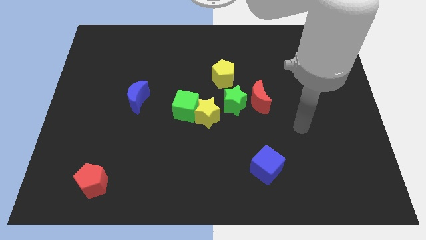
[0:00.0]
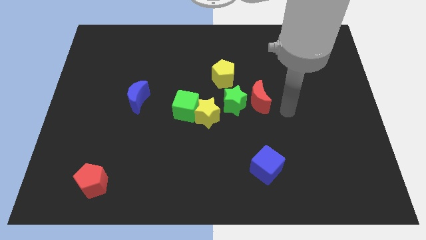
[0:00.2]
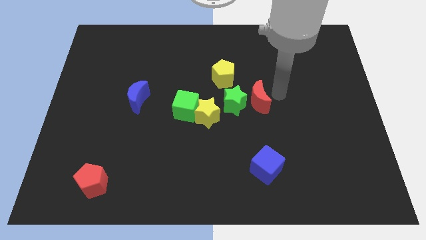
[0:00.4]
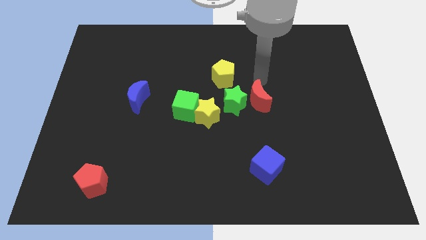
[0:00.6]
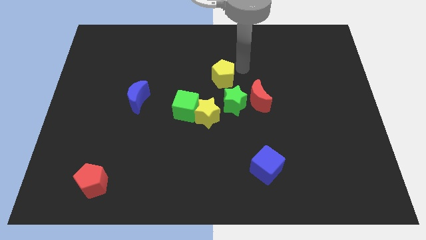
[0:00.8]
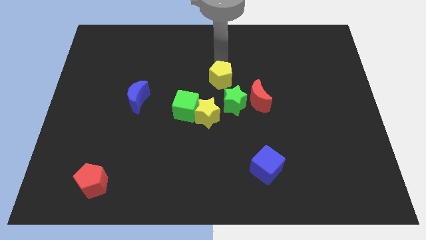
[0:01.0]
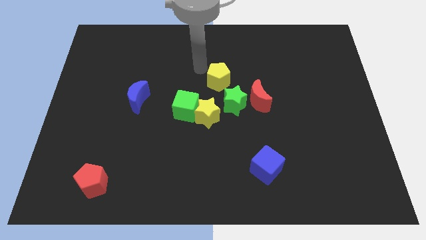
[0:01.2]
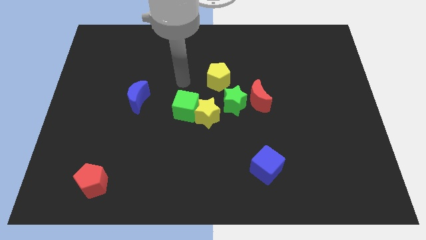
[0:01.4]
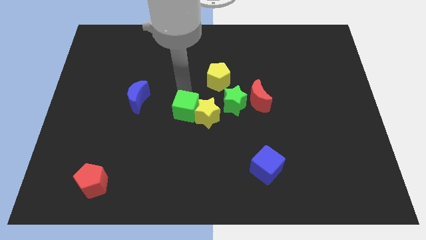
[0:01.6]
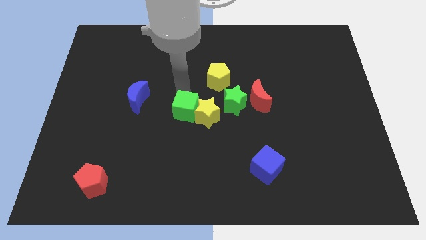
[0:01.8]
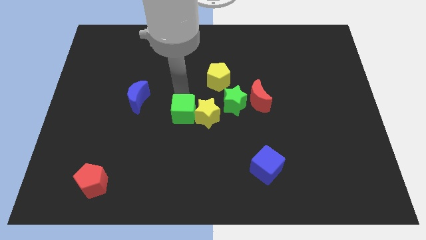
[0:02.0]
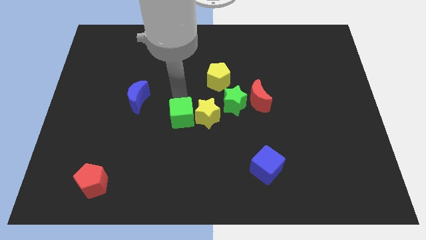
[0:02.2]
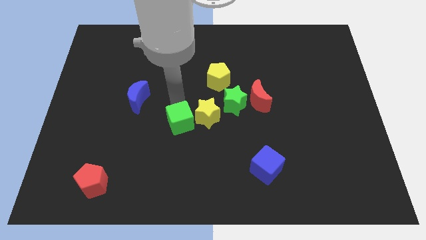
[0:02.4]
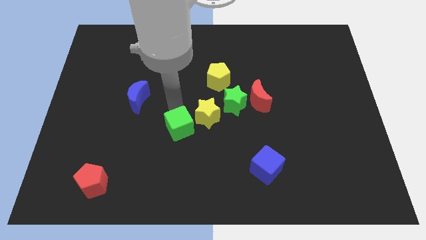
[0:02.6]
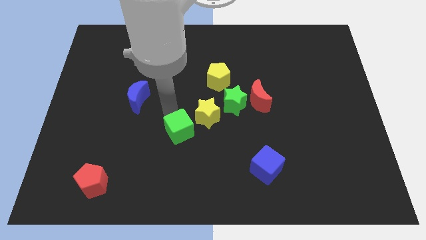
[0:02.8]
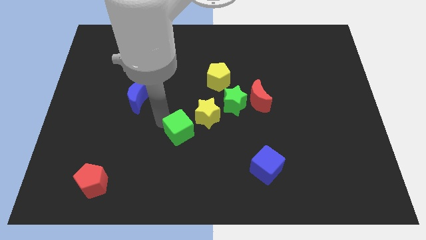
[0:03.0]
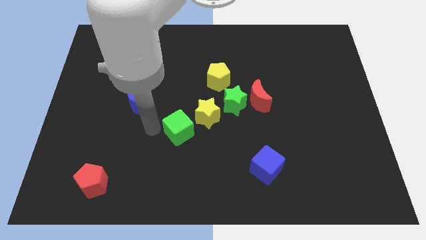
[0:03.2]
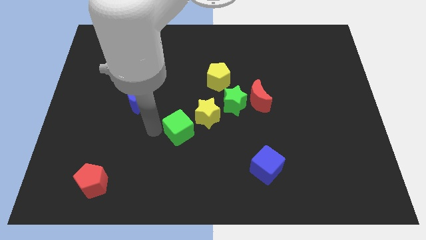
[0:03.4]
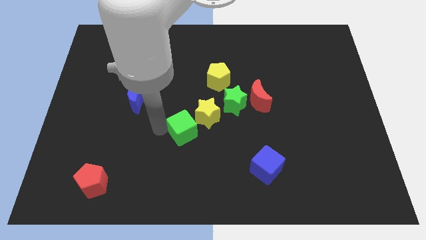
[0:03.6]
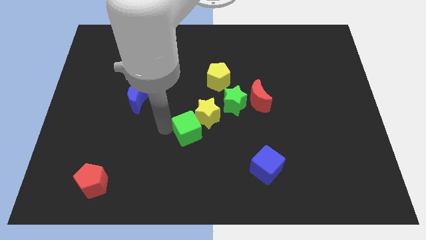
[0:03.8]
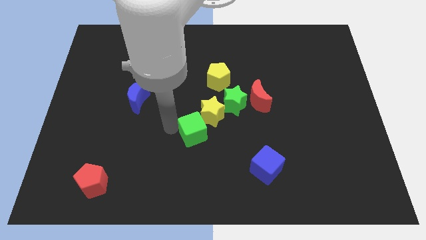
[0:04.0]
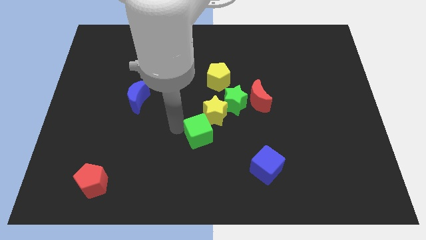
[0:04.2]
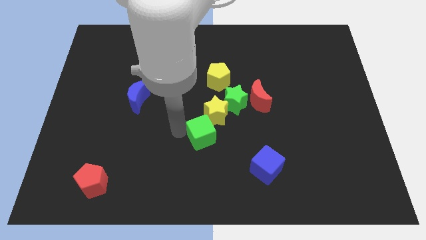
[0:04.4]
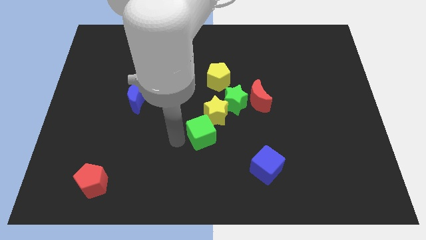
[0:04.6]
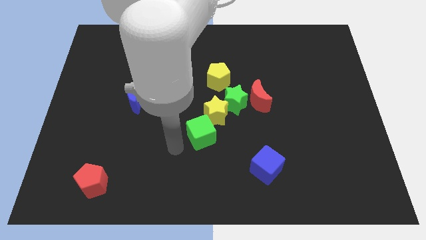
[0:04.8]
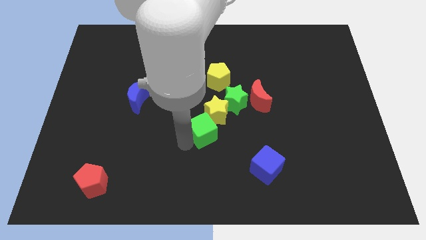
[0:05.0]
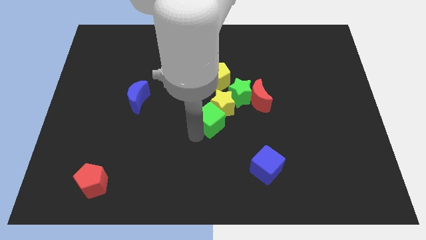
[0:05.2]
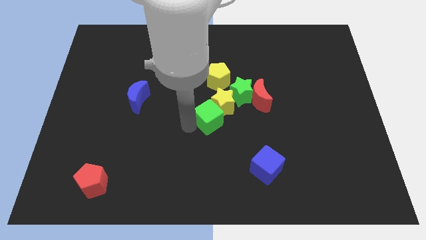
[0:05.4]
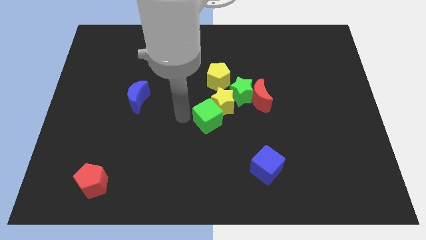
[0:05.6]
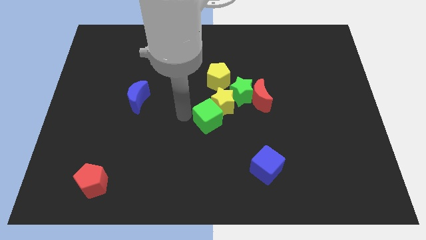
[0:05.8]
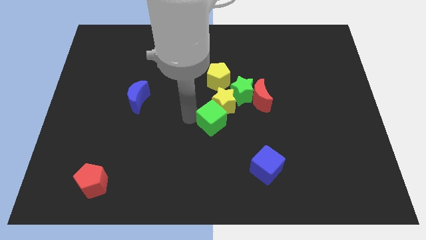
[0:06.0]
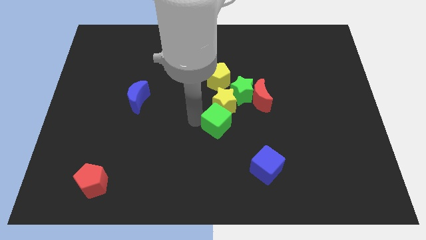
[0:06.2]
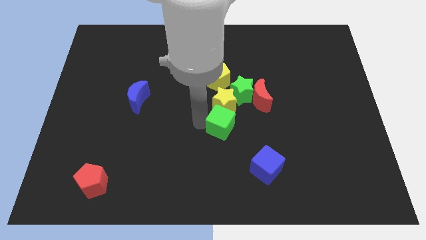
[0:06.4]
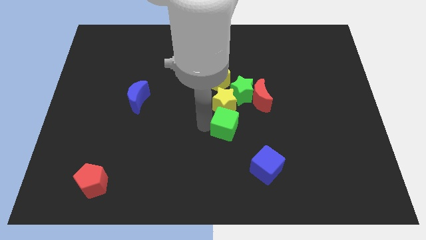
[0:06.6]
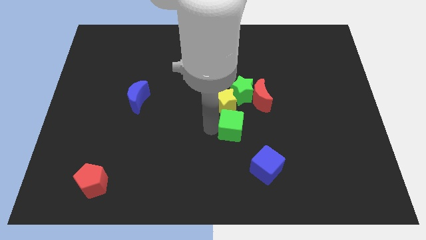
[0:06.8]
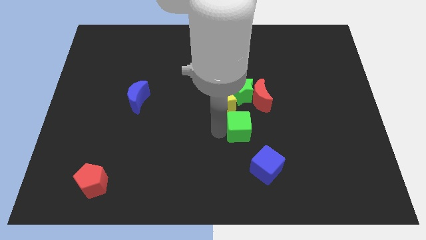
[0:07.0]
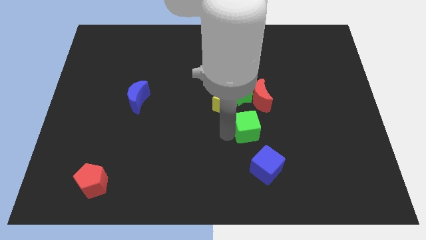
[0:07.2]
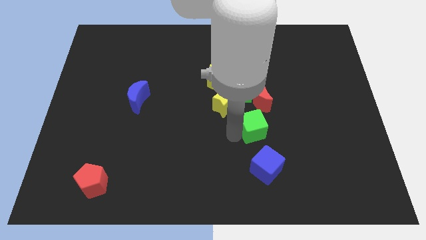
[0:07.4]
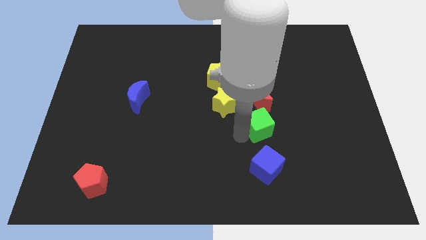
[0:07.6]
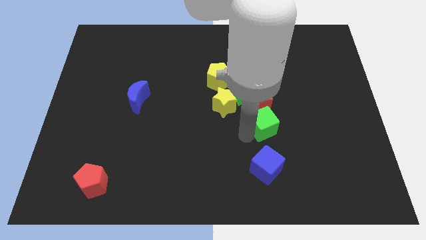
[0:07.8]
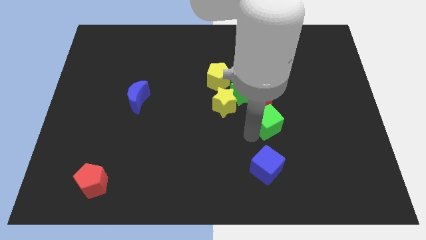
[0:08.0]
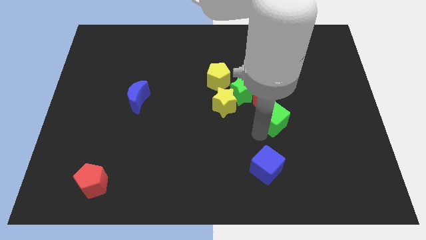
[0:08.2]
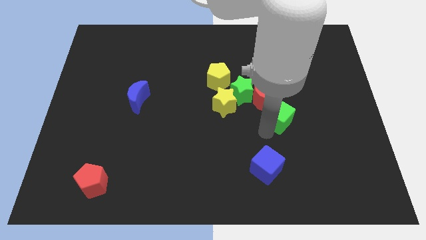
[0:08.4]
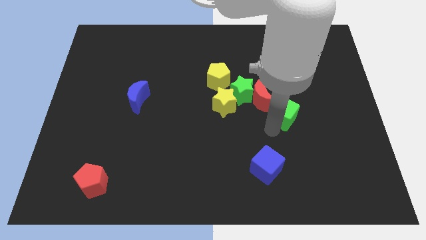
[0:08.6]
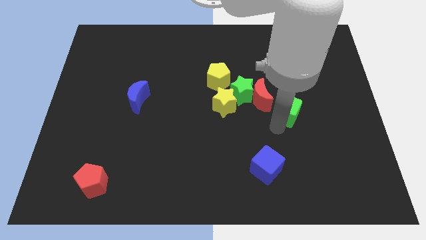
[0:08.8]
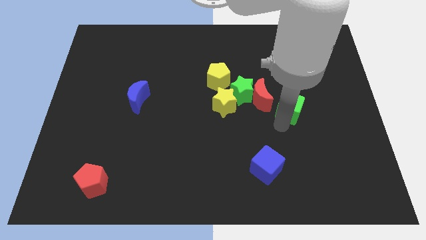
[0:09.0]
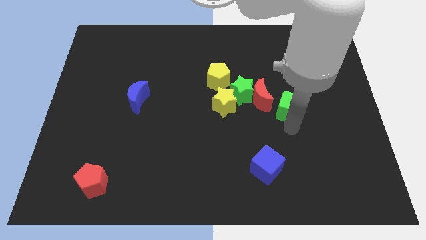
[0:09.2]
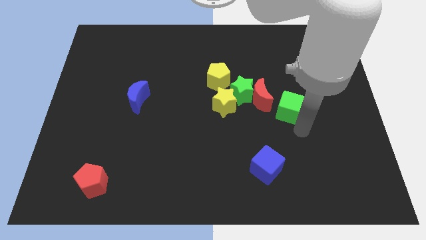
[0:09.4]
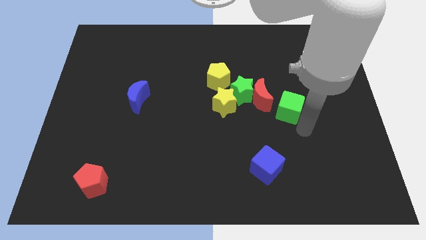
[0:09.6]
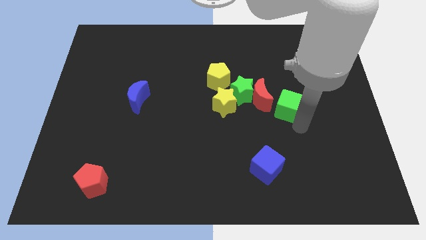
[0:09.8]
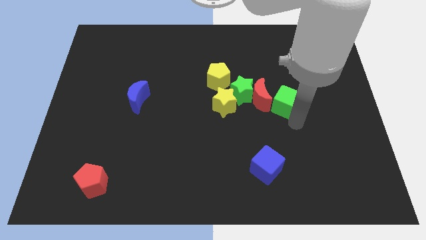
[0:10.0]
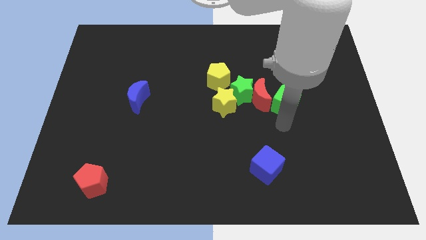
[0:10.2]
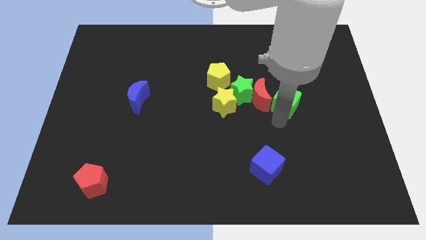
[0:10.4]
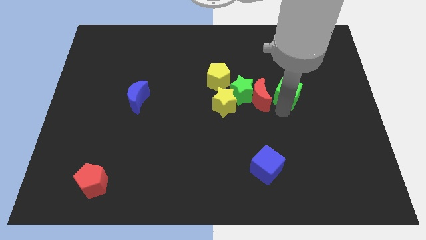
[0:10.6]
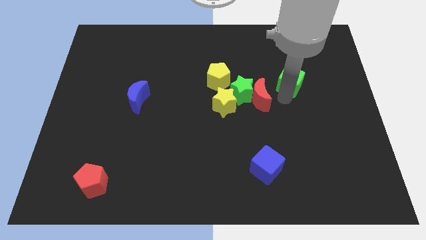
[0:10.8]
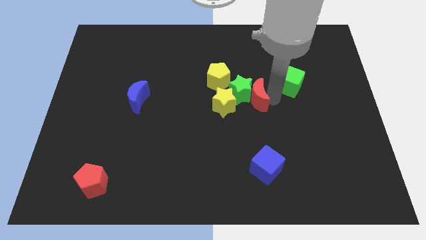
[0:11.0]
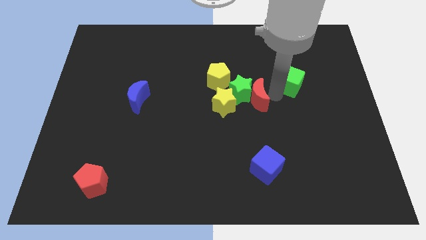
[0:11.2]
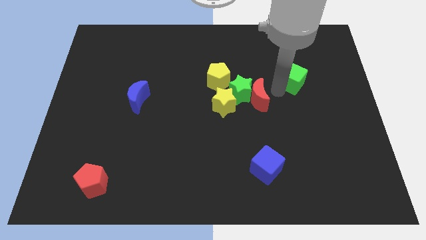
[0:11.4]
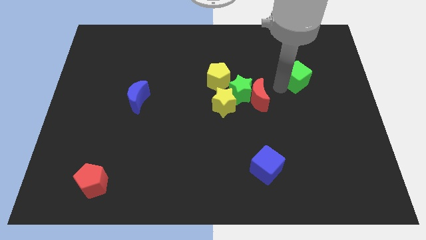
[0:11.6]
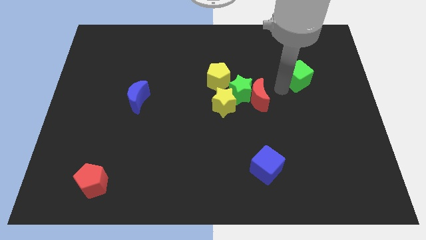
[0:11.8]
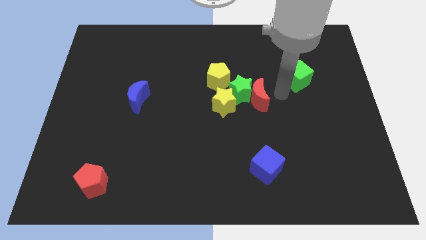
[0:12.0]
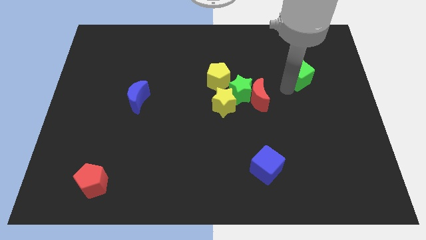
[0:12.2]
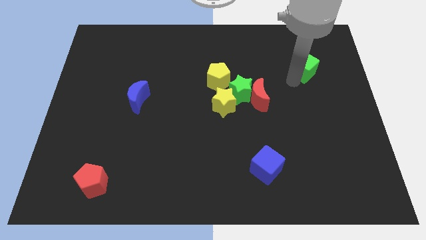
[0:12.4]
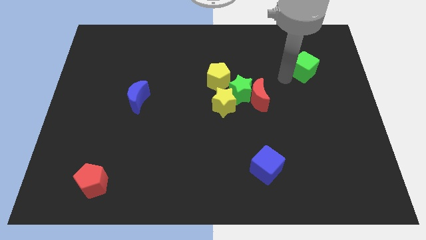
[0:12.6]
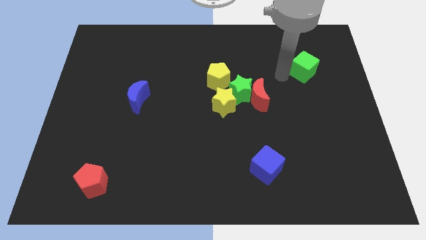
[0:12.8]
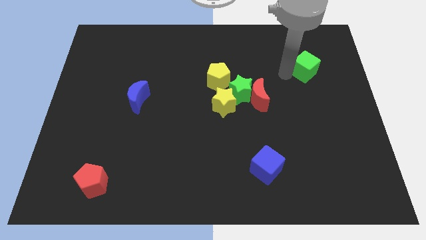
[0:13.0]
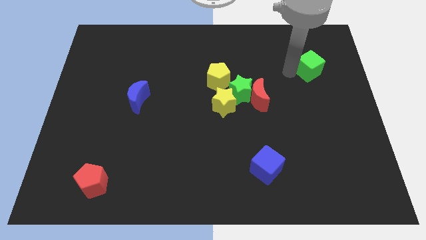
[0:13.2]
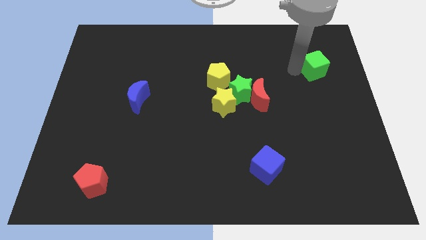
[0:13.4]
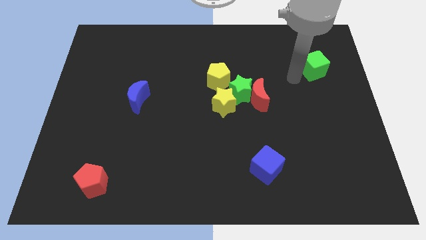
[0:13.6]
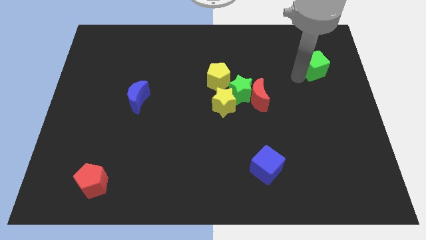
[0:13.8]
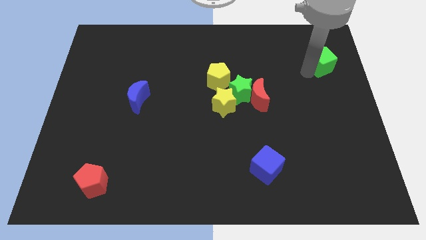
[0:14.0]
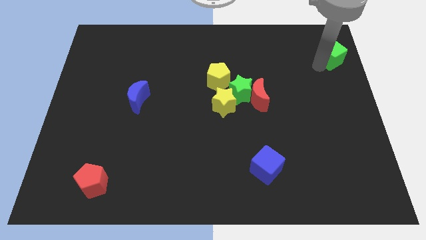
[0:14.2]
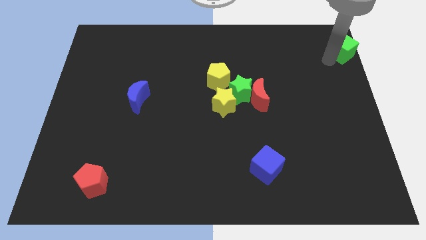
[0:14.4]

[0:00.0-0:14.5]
push the green cube to the upper right corner
